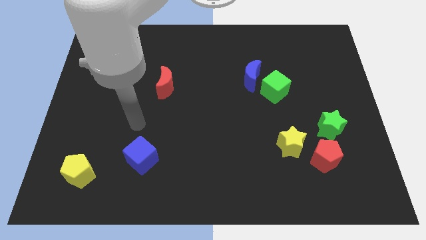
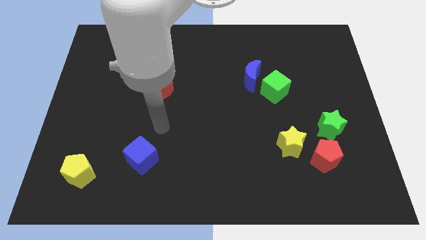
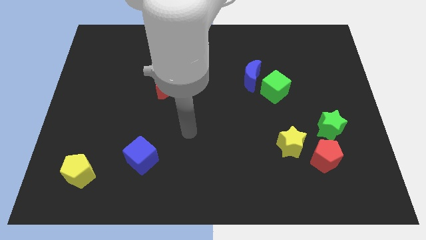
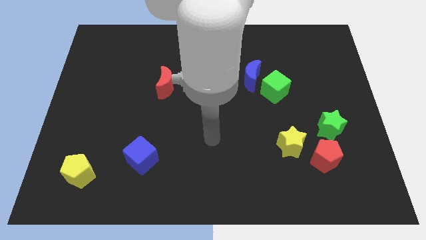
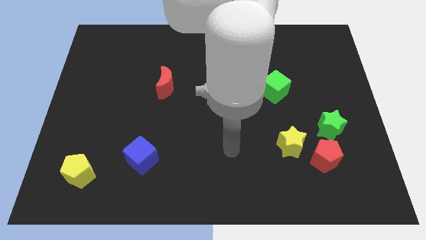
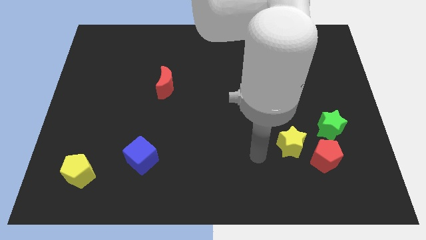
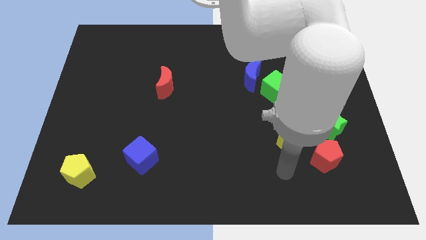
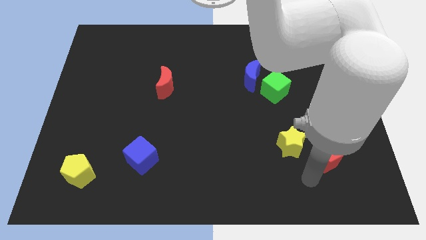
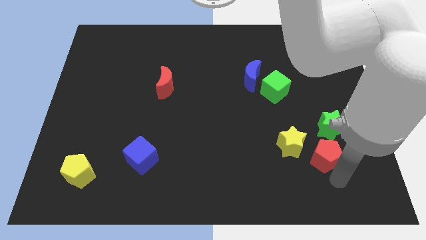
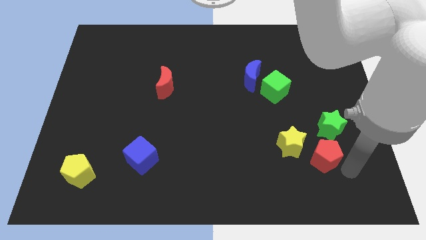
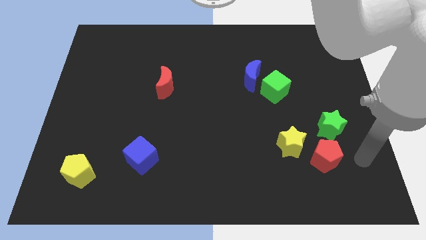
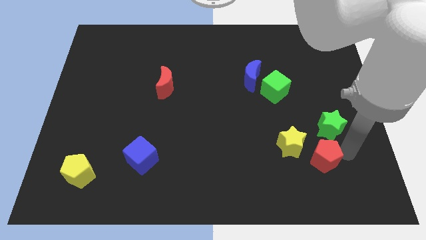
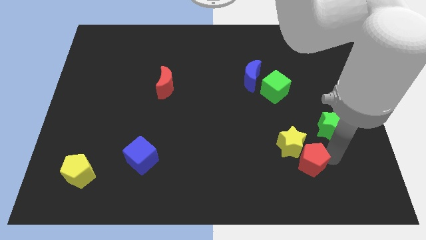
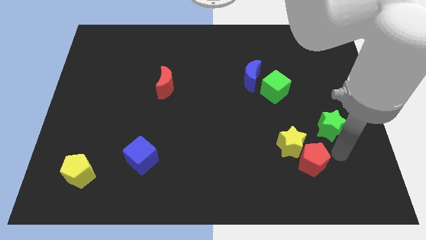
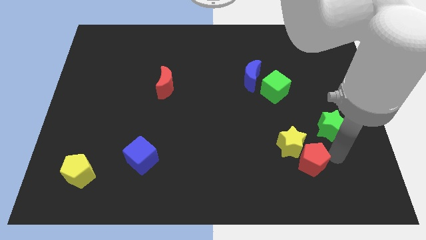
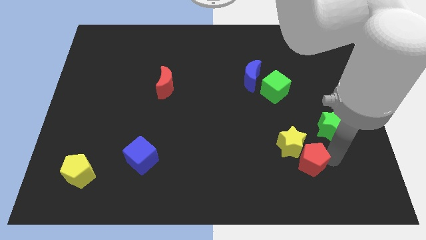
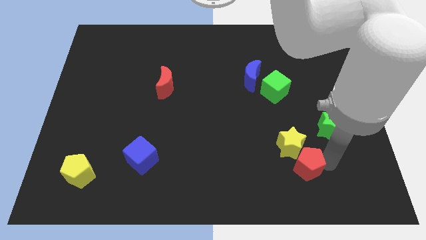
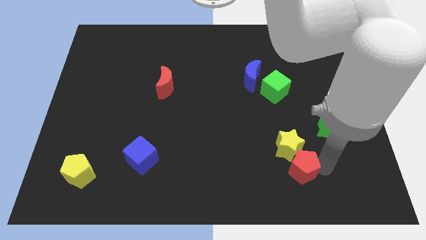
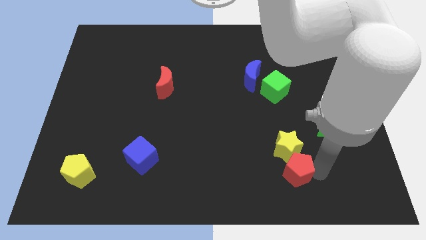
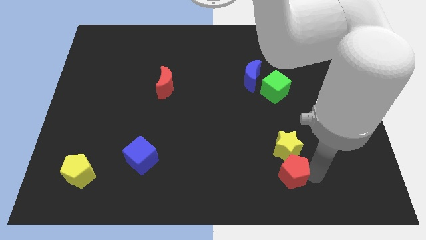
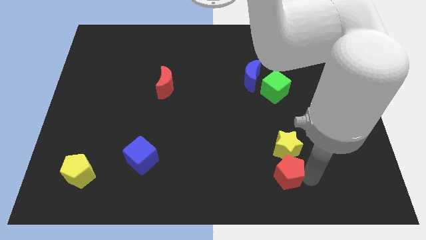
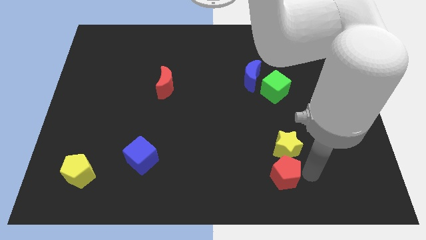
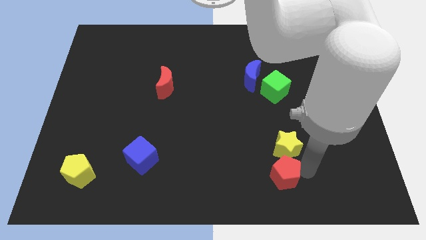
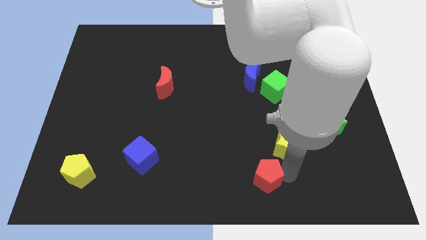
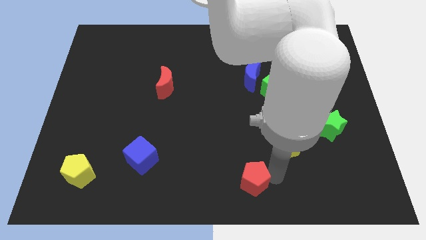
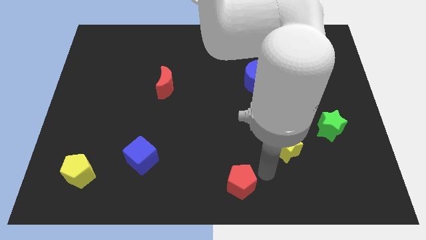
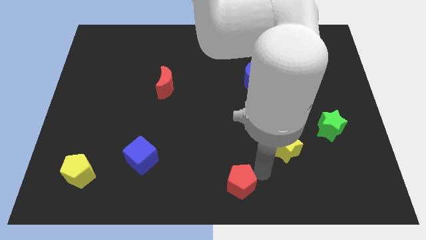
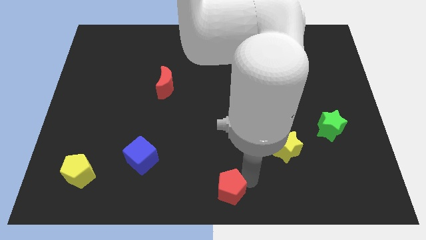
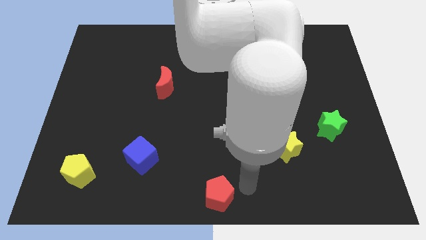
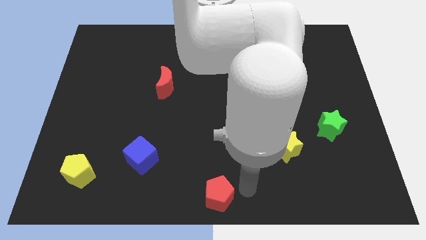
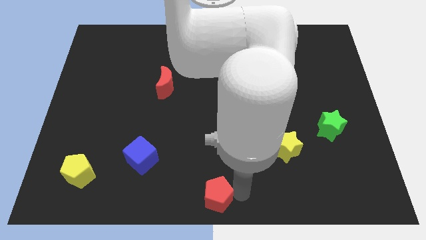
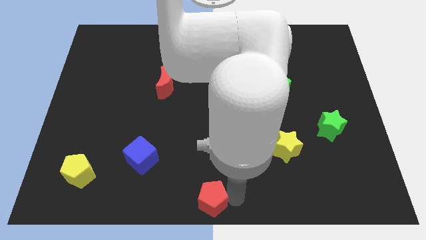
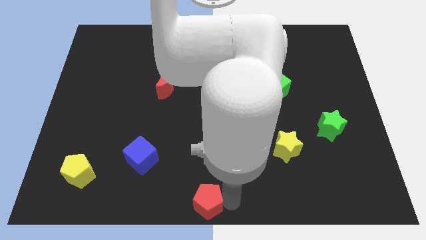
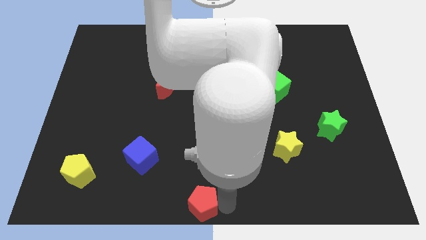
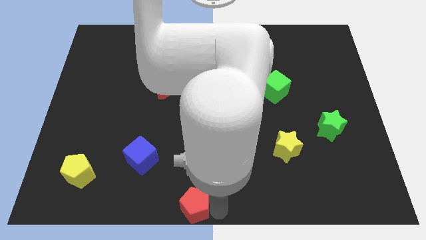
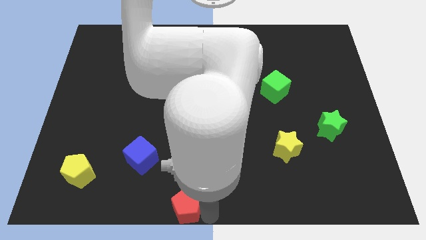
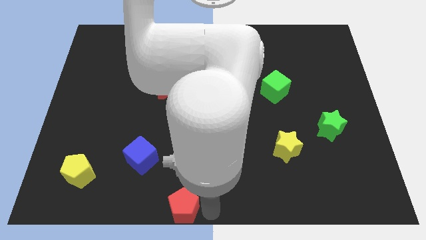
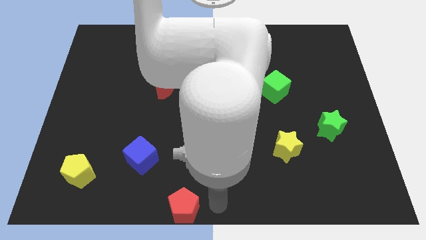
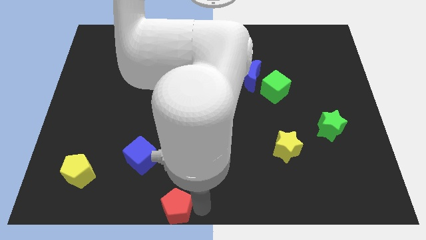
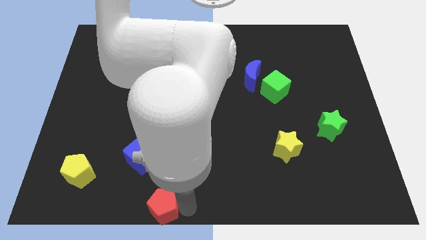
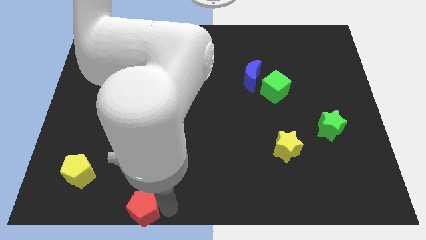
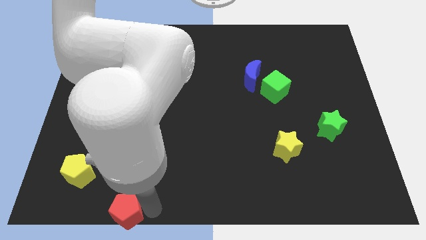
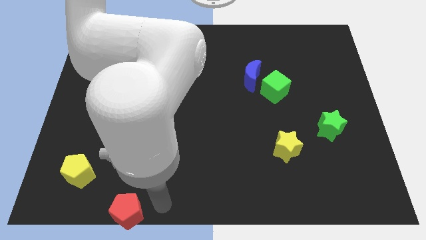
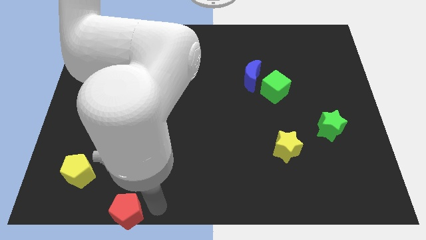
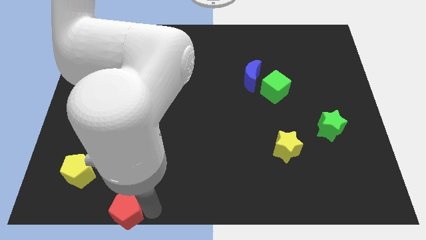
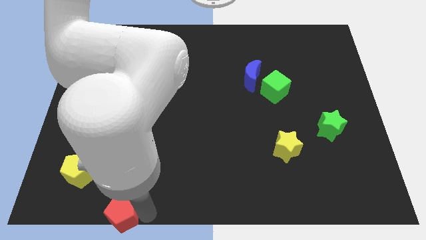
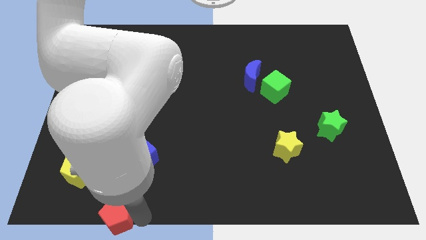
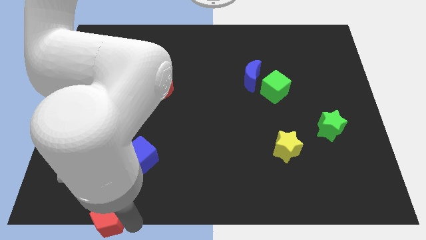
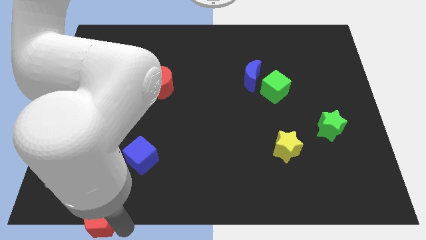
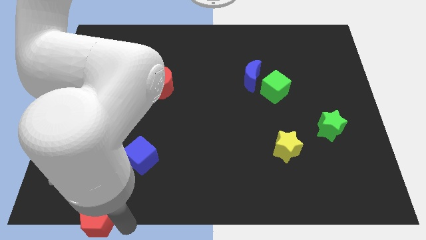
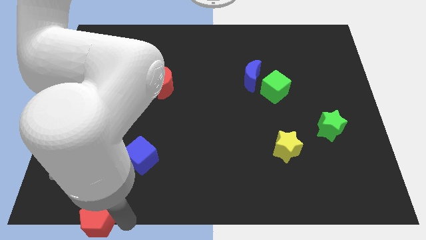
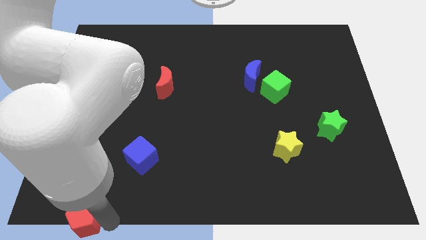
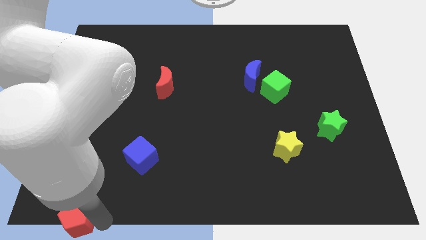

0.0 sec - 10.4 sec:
push the red pentagon to the bottom left
